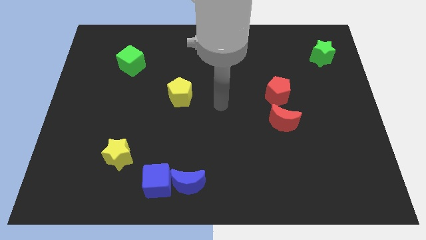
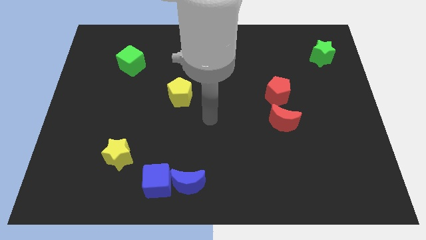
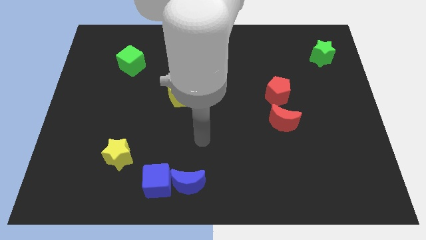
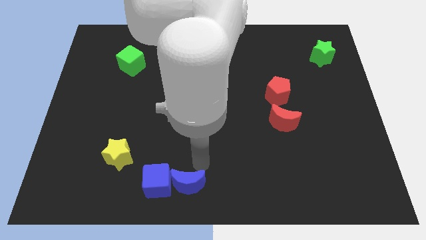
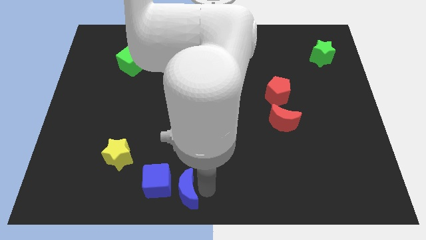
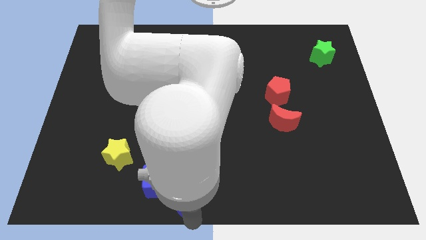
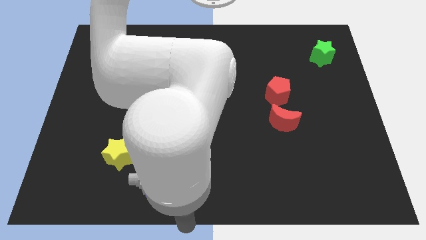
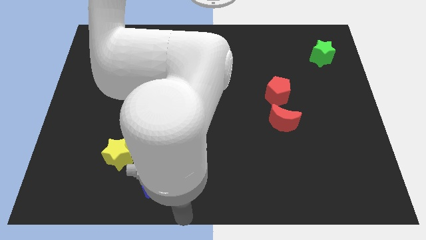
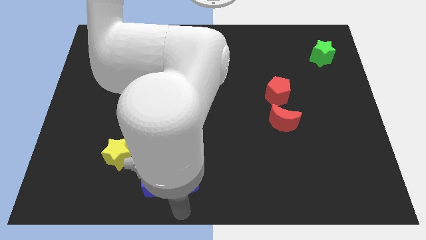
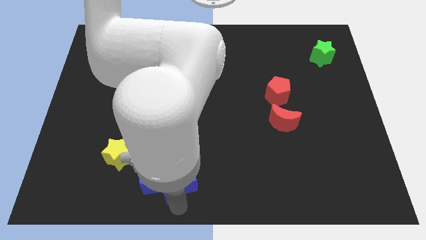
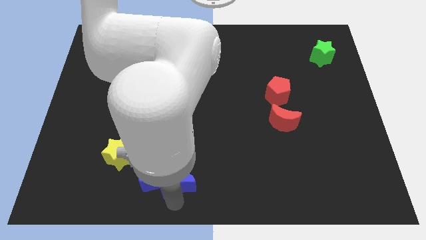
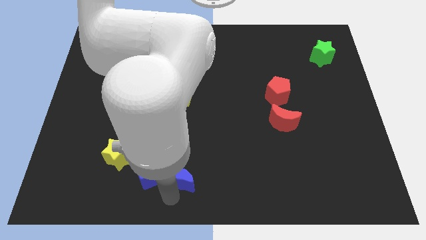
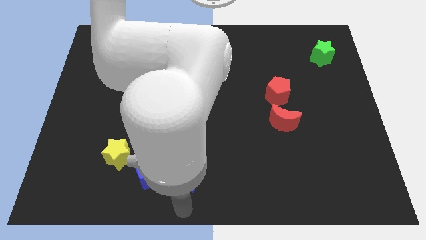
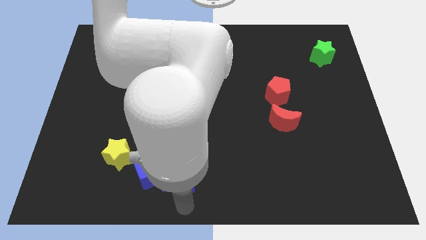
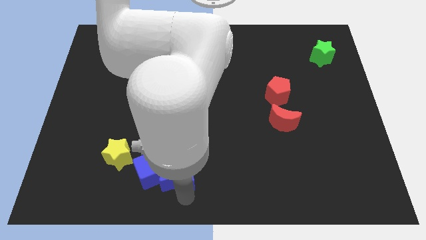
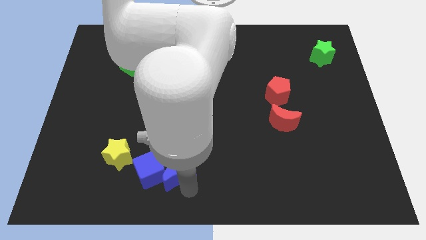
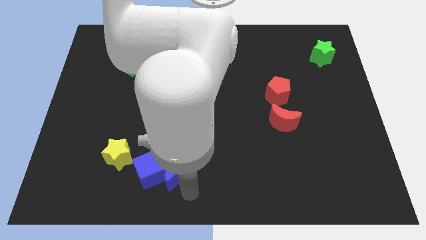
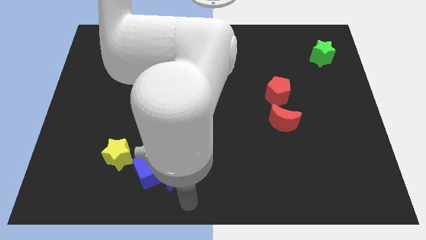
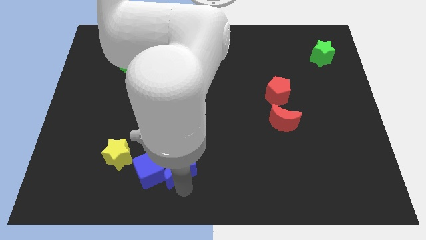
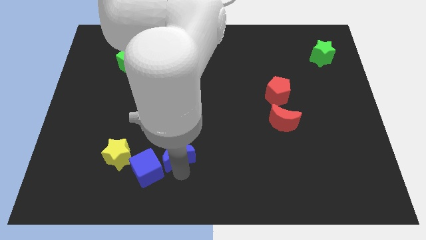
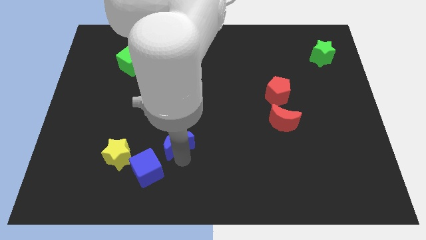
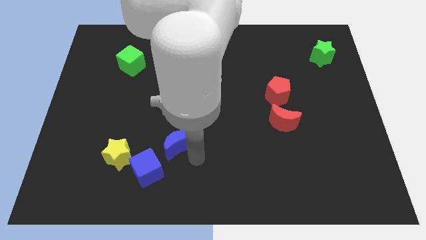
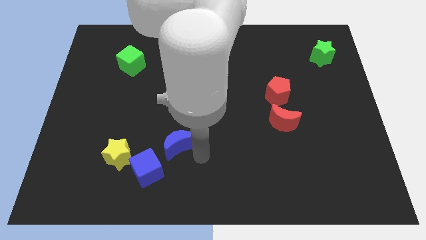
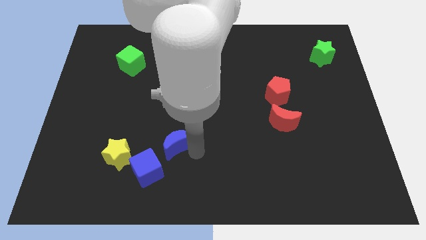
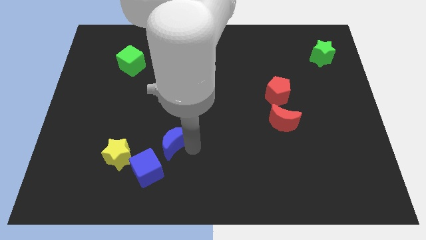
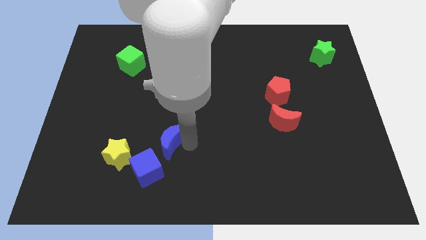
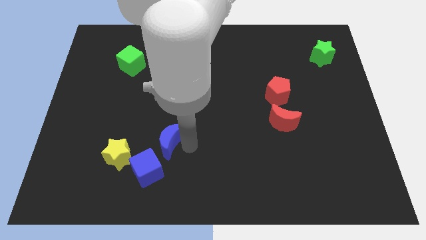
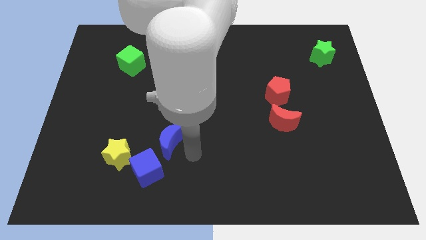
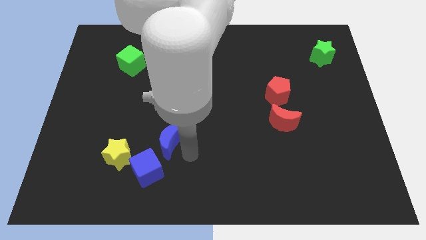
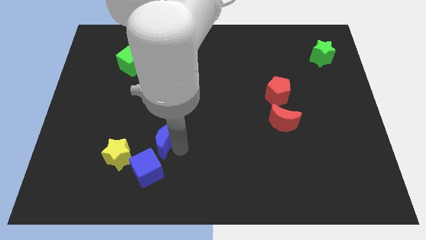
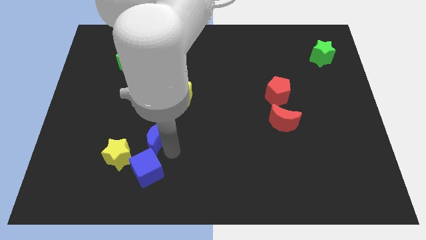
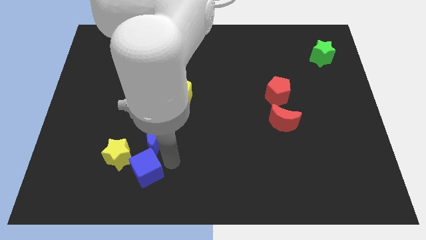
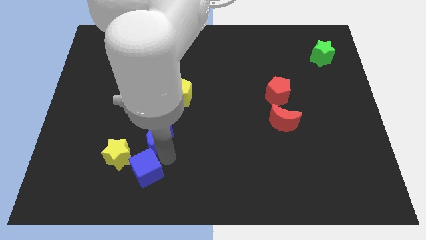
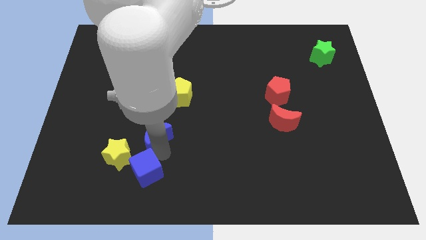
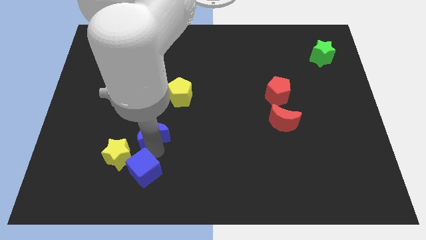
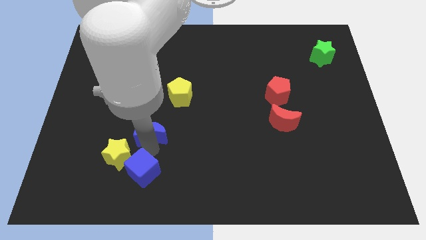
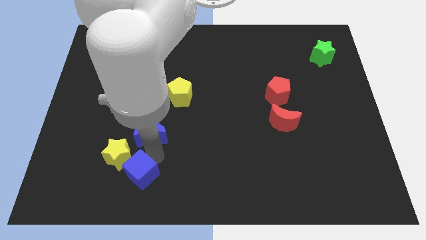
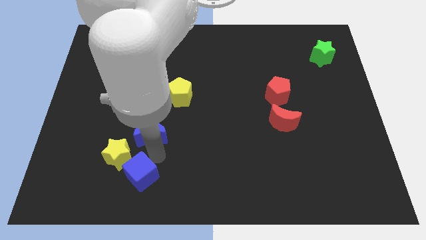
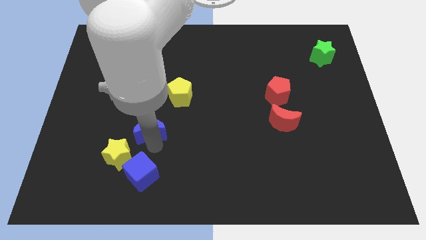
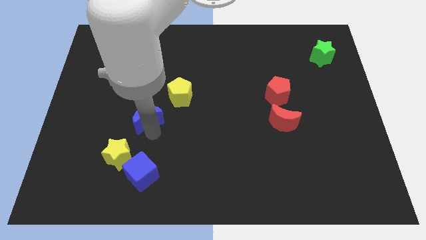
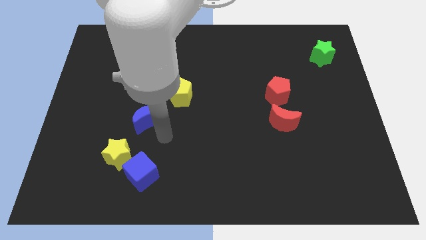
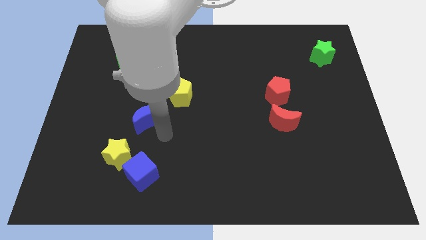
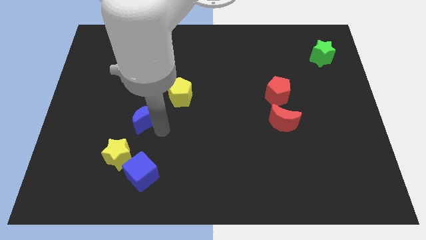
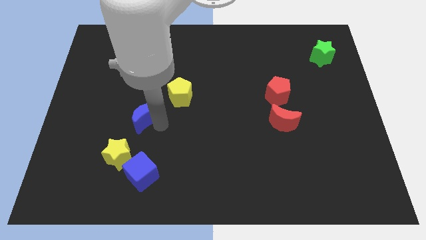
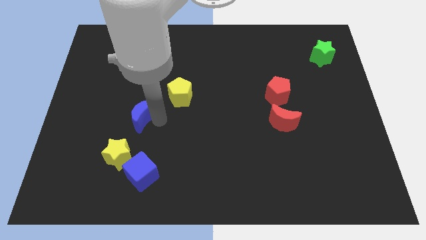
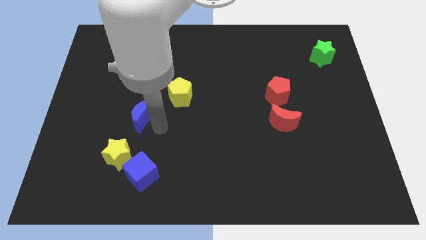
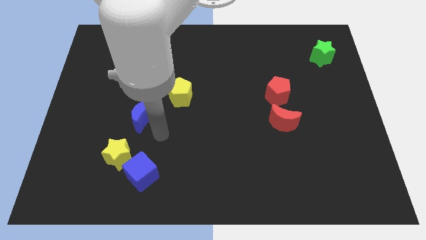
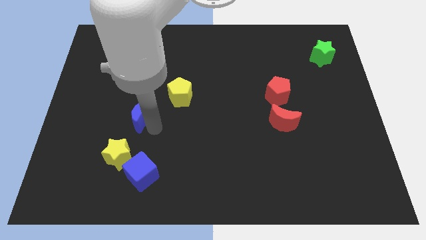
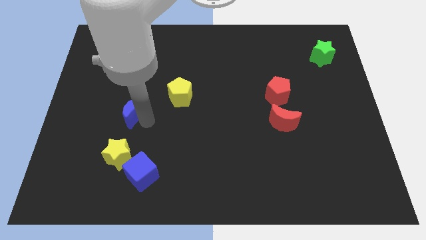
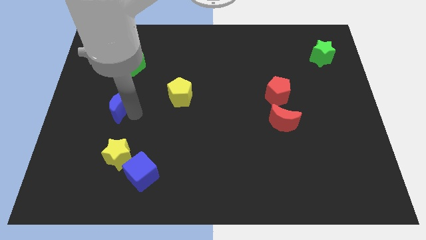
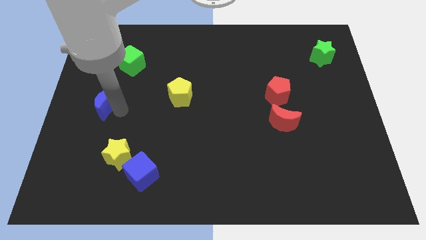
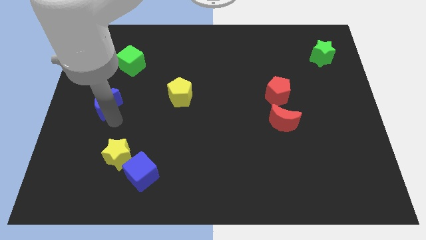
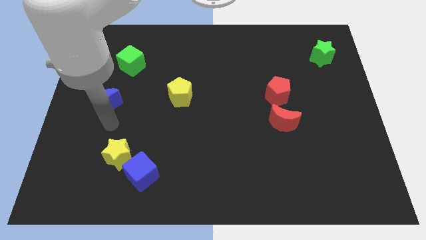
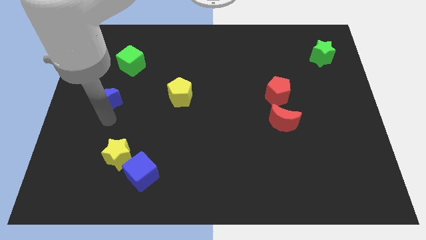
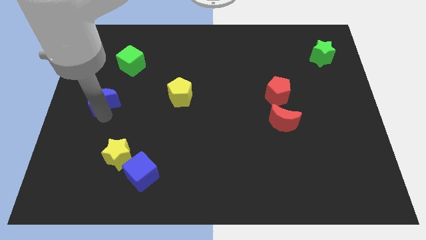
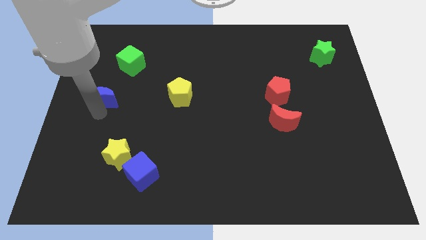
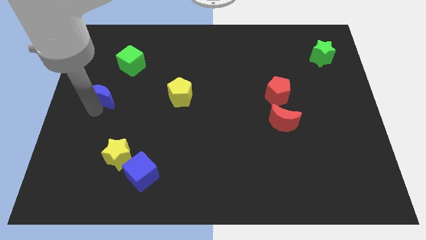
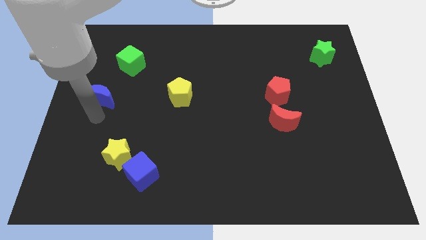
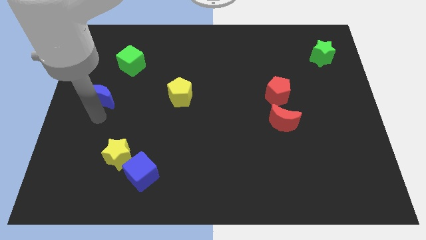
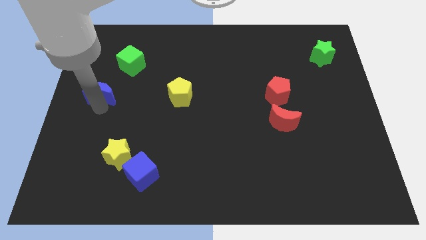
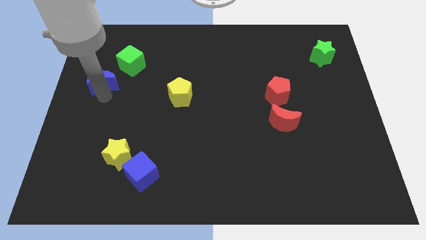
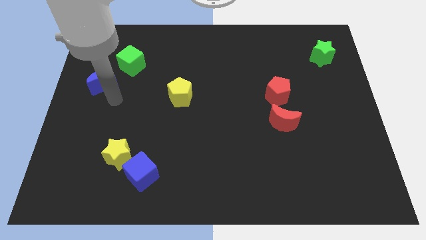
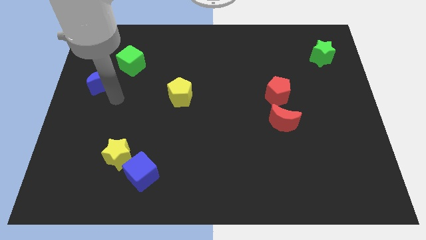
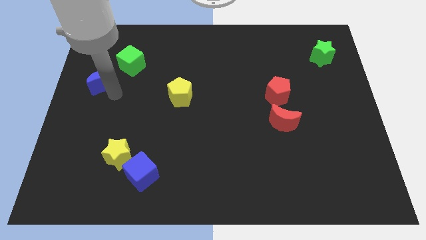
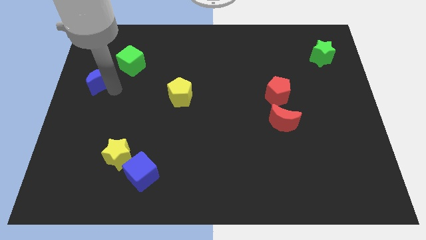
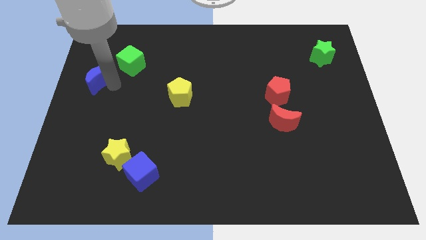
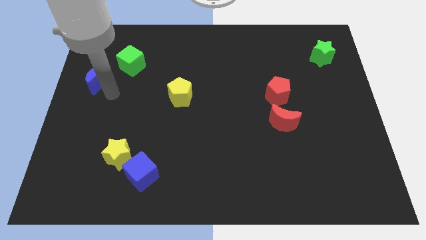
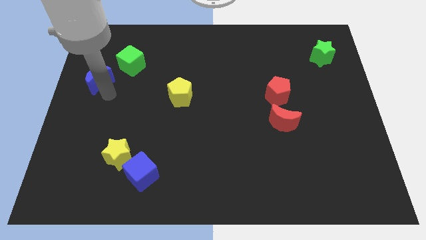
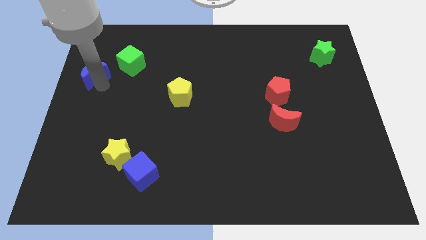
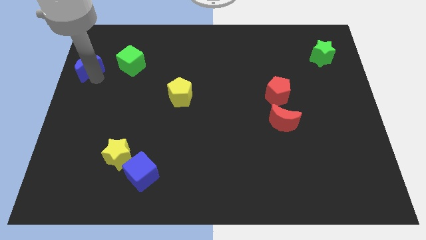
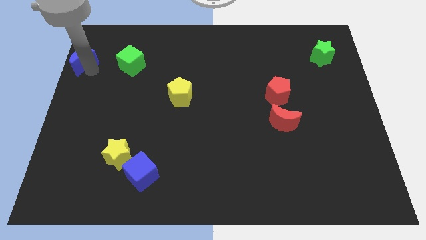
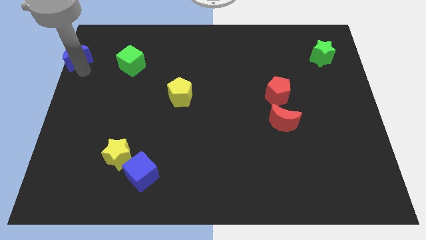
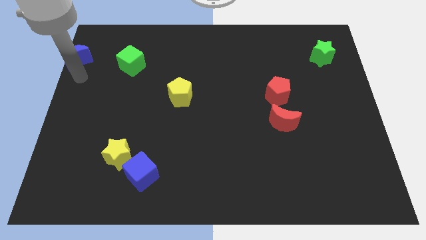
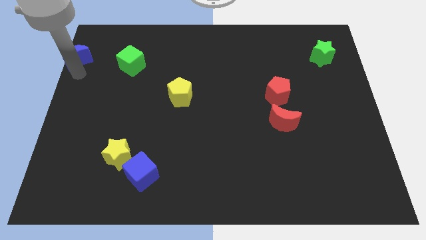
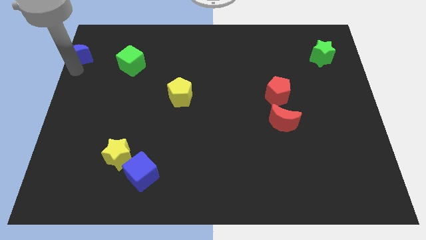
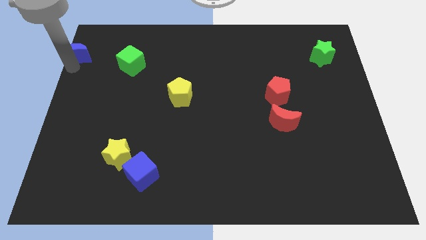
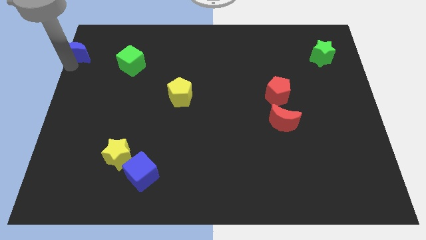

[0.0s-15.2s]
push the blue moon to the top left corner
